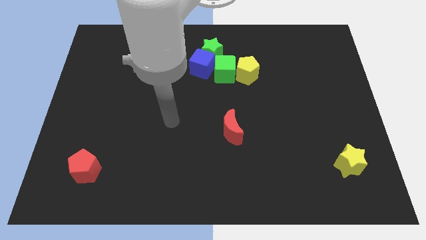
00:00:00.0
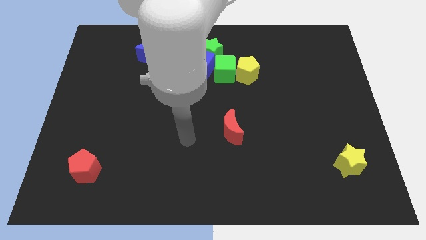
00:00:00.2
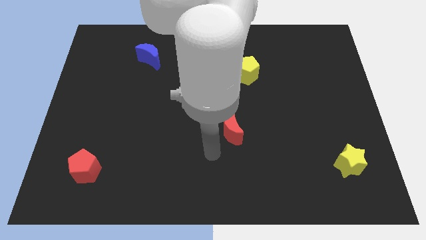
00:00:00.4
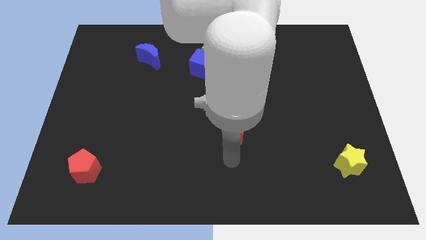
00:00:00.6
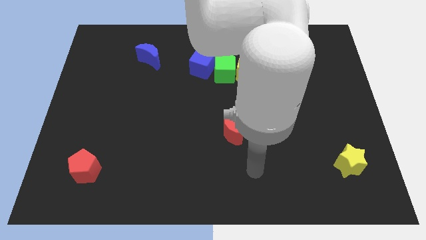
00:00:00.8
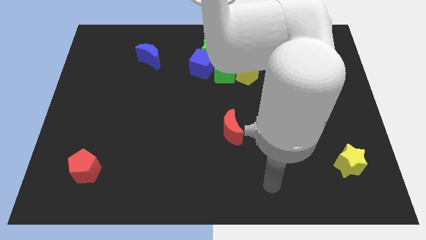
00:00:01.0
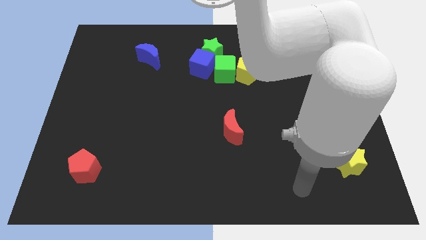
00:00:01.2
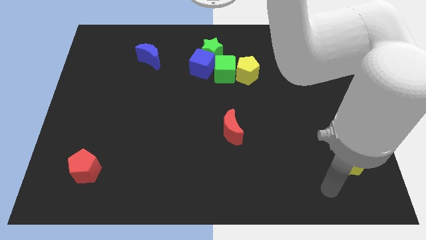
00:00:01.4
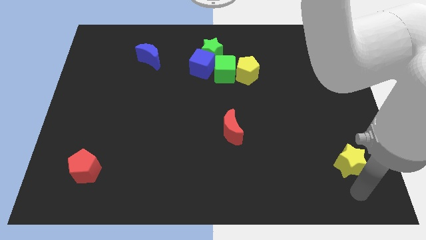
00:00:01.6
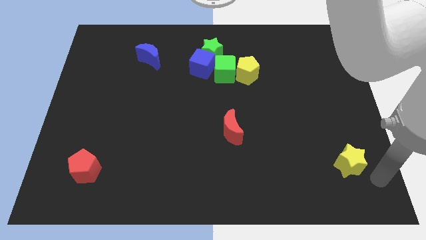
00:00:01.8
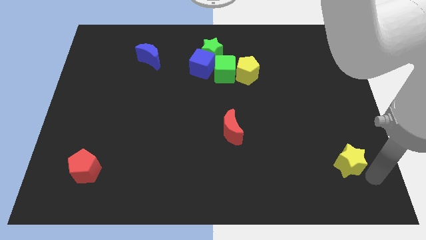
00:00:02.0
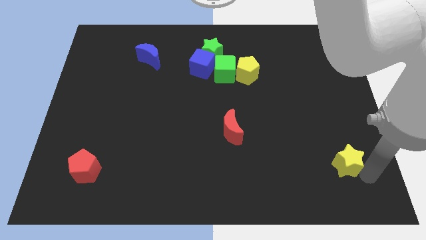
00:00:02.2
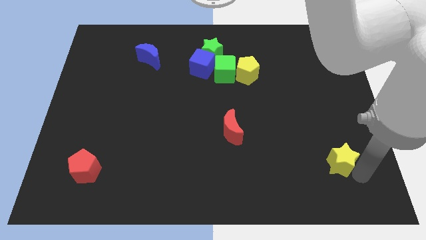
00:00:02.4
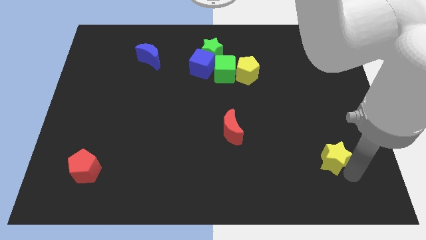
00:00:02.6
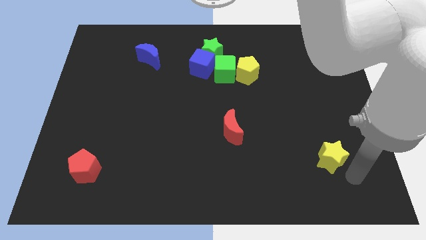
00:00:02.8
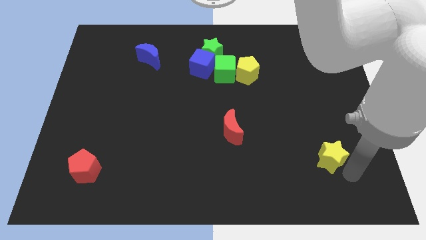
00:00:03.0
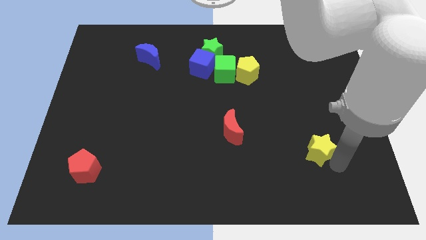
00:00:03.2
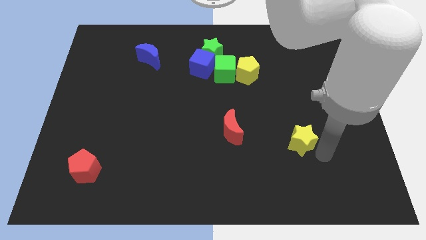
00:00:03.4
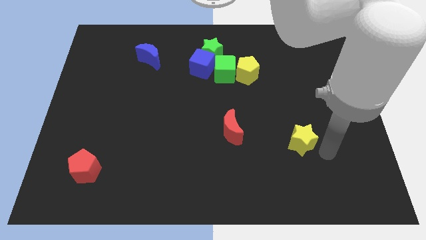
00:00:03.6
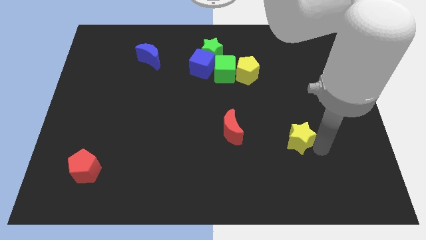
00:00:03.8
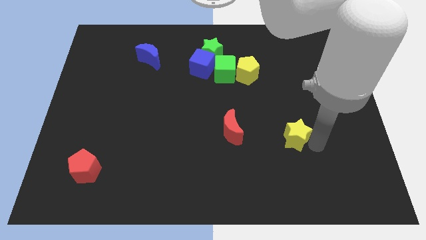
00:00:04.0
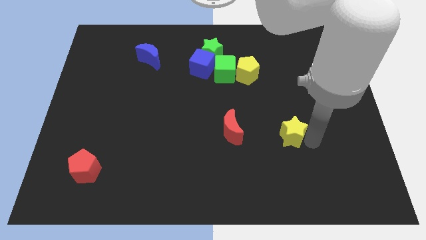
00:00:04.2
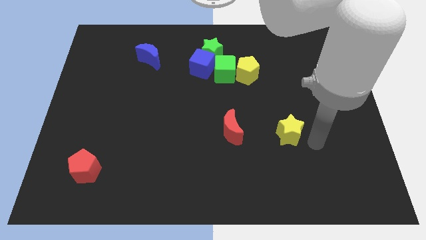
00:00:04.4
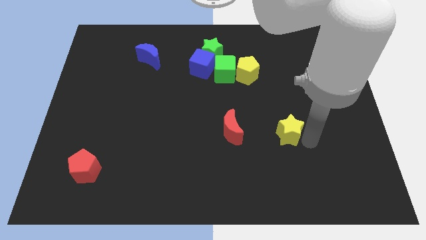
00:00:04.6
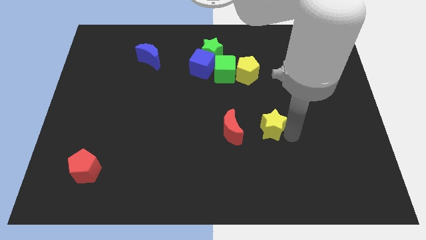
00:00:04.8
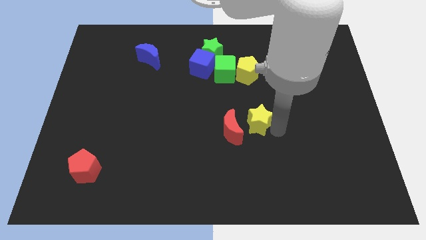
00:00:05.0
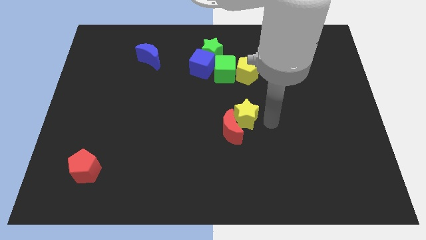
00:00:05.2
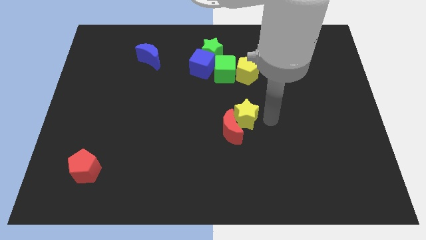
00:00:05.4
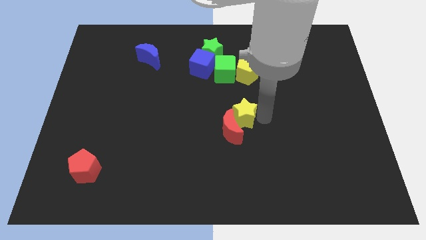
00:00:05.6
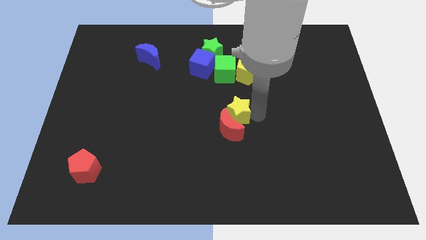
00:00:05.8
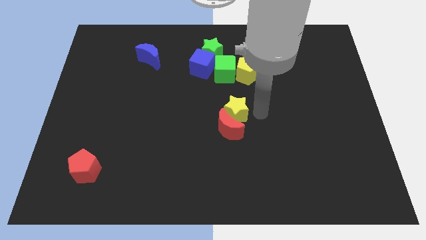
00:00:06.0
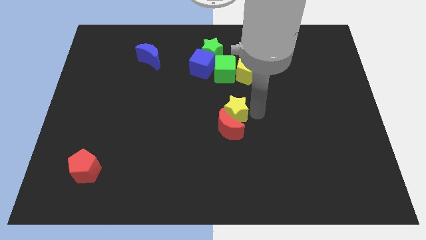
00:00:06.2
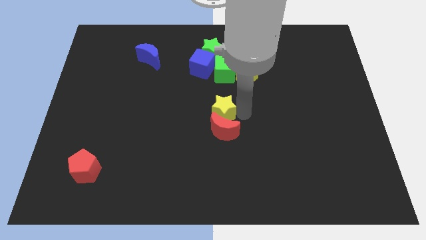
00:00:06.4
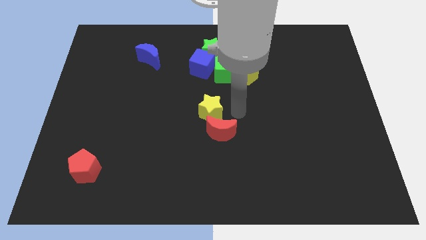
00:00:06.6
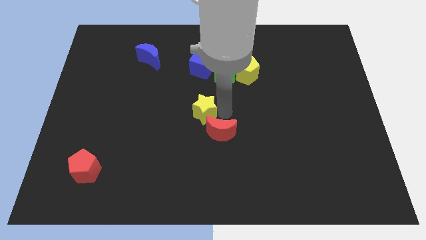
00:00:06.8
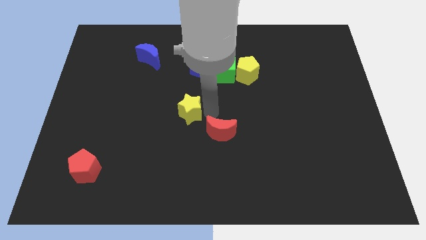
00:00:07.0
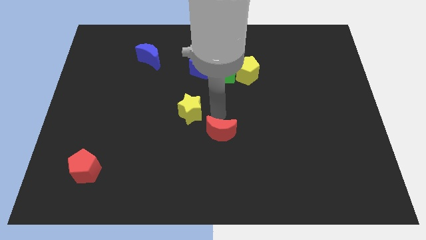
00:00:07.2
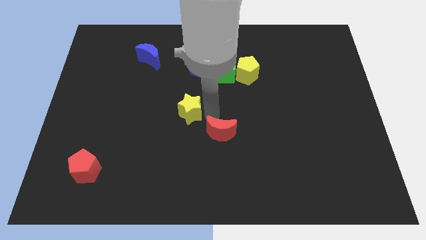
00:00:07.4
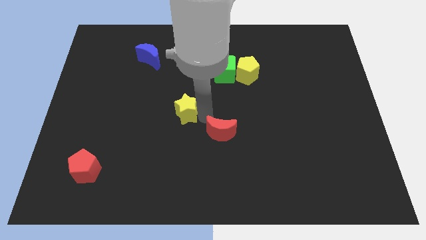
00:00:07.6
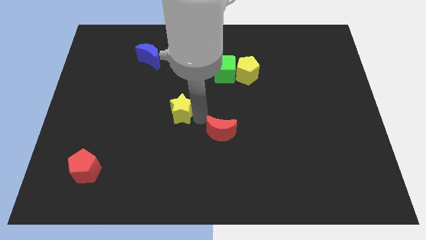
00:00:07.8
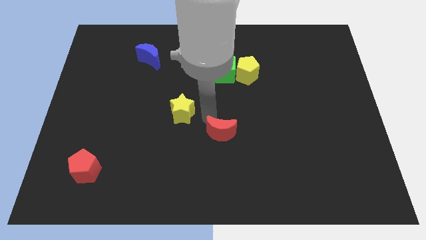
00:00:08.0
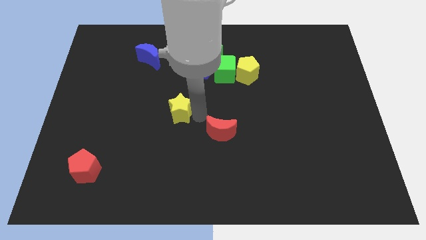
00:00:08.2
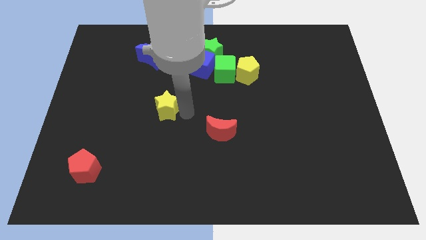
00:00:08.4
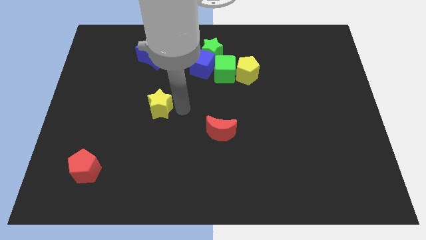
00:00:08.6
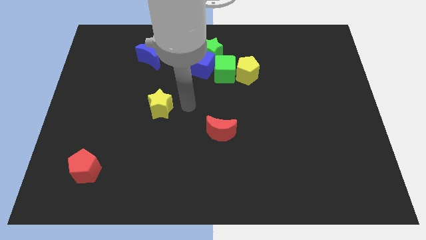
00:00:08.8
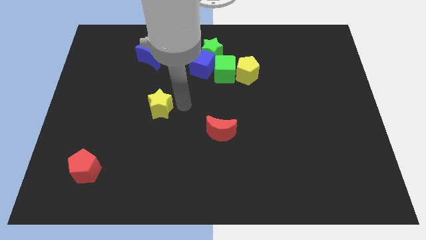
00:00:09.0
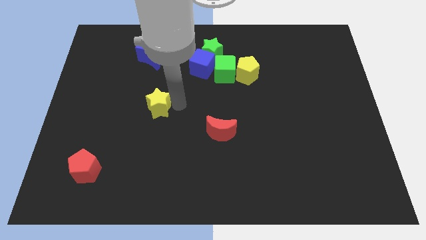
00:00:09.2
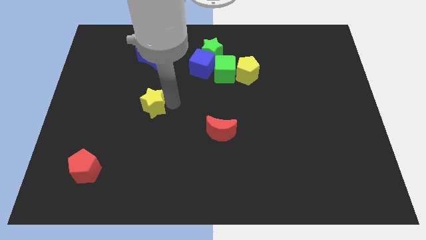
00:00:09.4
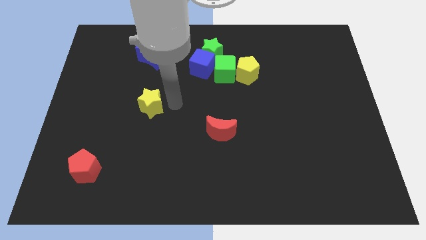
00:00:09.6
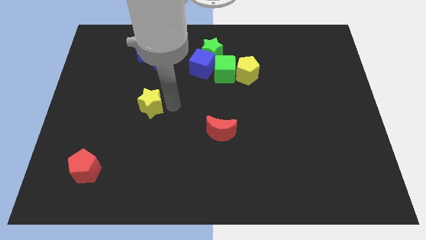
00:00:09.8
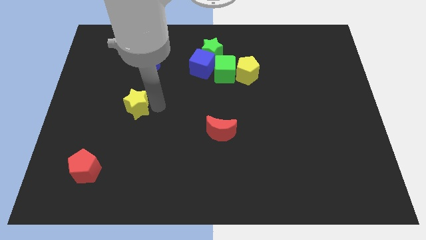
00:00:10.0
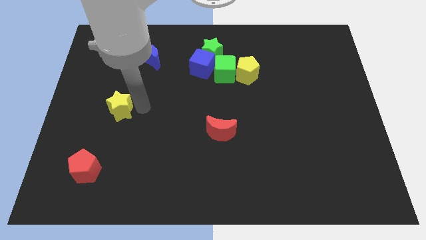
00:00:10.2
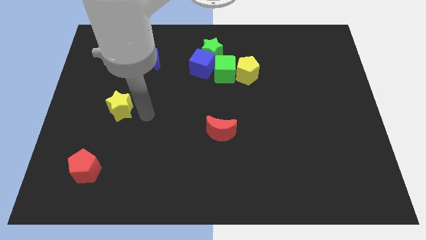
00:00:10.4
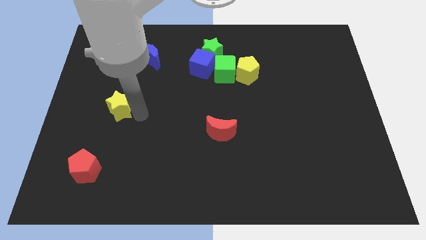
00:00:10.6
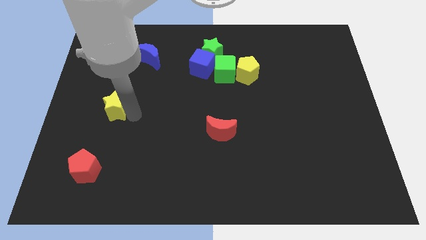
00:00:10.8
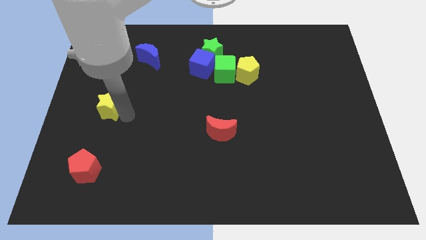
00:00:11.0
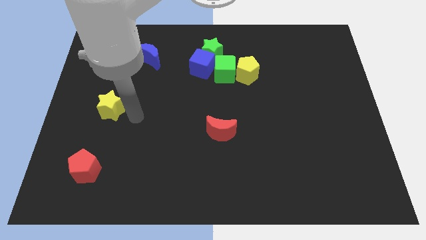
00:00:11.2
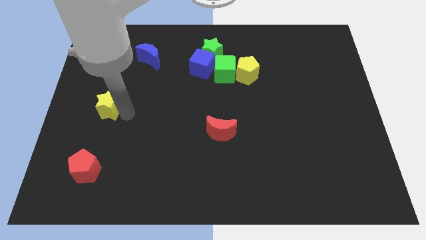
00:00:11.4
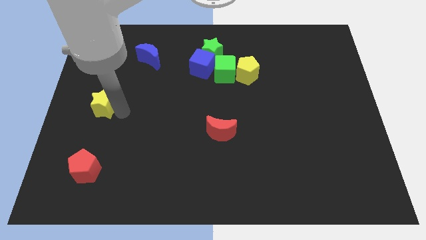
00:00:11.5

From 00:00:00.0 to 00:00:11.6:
move the yellow star to the center left

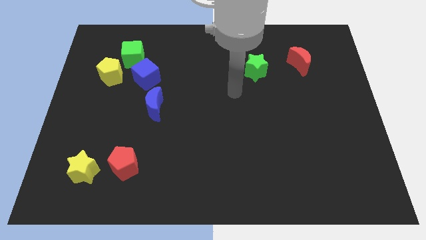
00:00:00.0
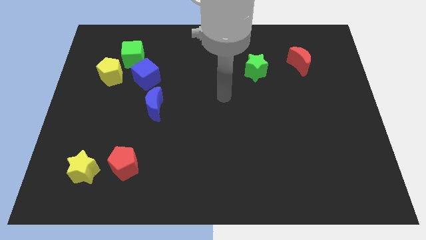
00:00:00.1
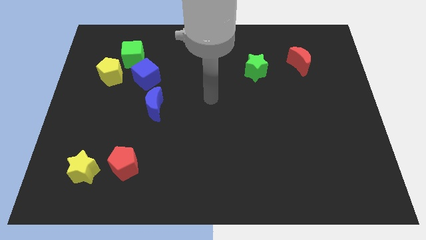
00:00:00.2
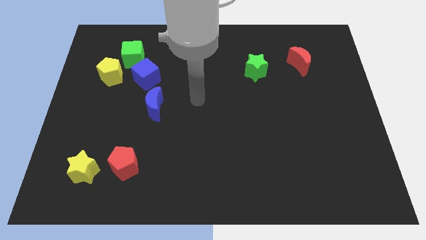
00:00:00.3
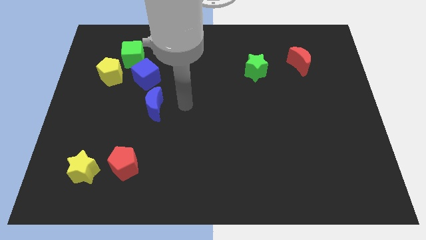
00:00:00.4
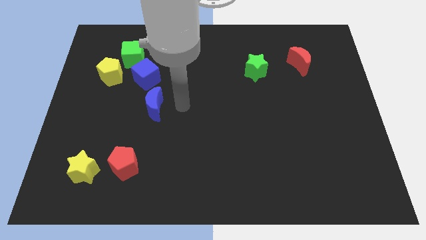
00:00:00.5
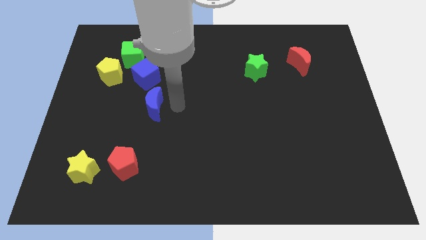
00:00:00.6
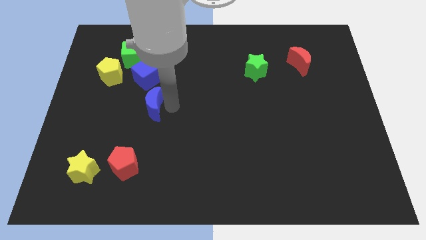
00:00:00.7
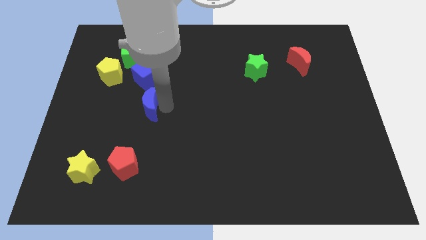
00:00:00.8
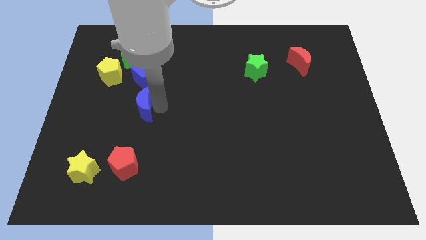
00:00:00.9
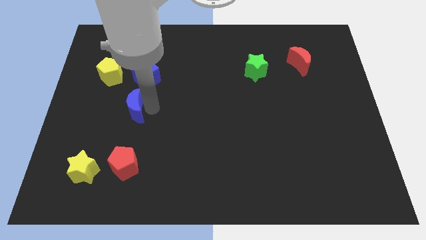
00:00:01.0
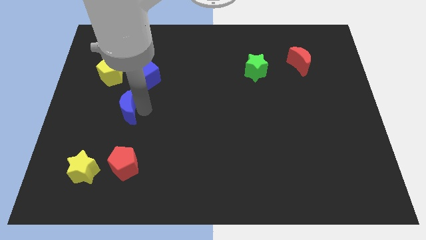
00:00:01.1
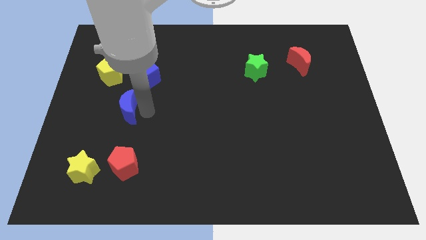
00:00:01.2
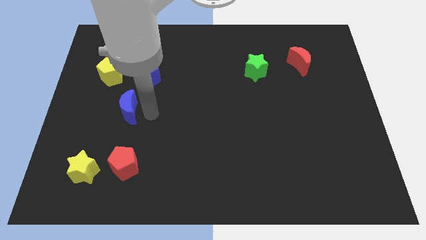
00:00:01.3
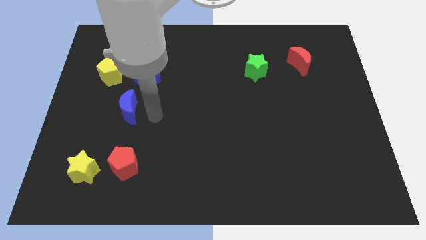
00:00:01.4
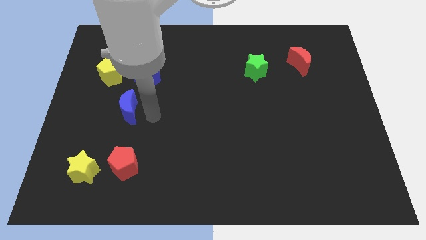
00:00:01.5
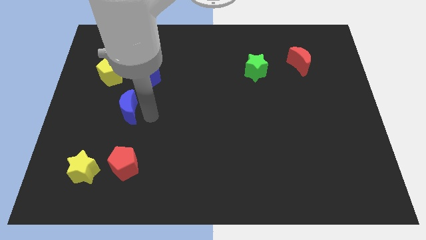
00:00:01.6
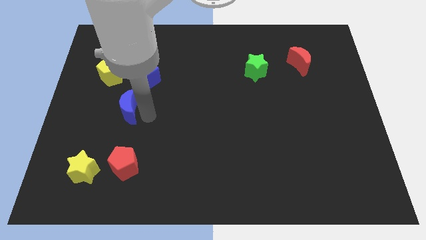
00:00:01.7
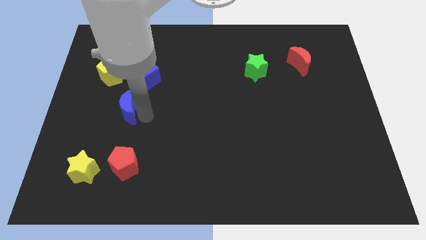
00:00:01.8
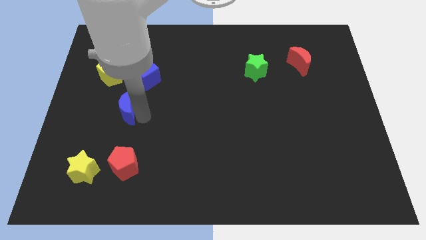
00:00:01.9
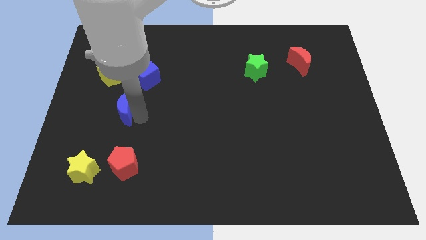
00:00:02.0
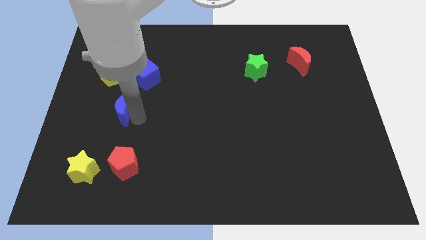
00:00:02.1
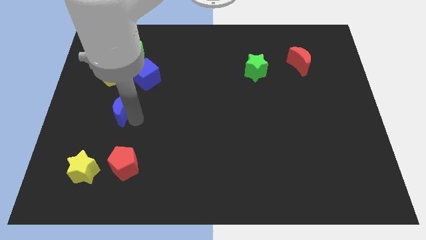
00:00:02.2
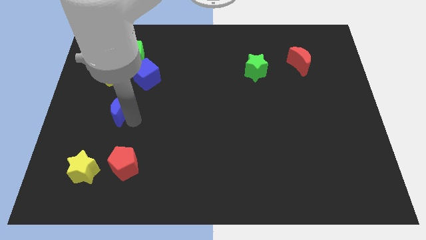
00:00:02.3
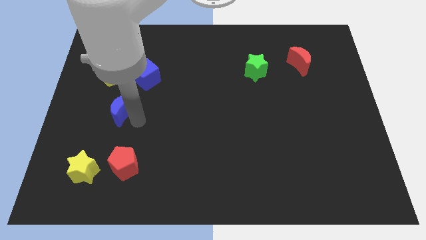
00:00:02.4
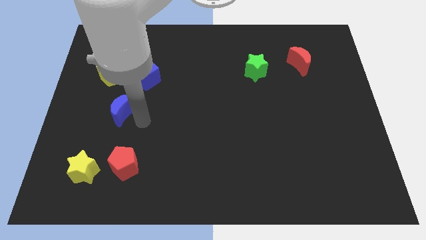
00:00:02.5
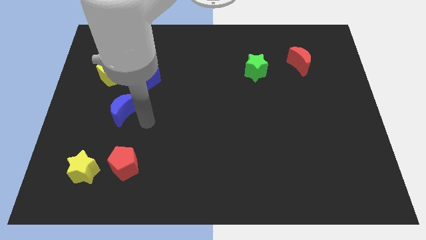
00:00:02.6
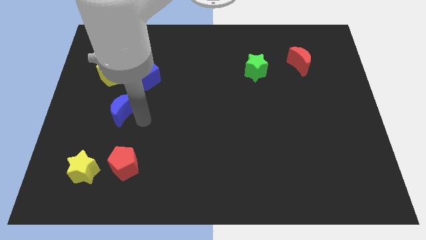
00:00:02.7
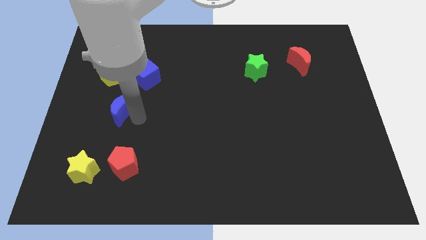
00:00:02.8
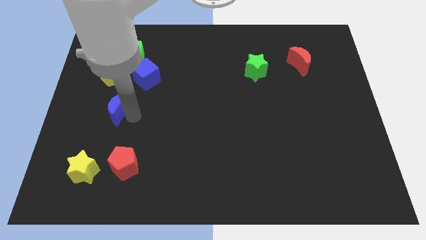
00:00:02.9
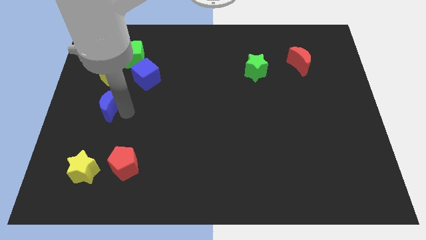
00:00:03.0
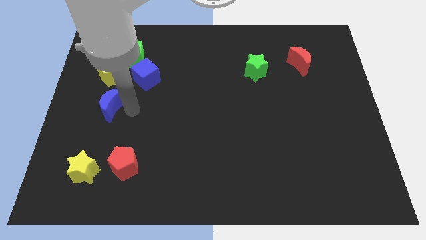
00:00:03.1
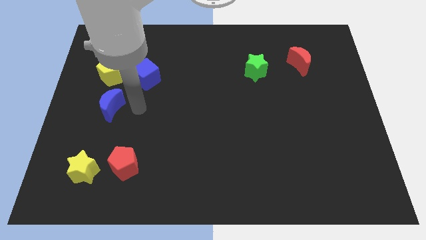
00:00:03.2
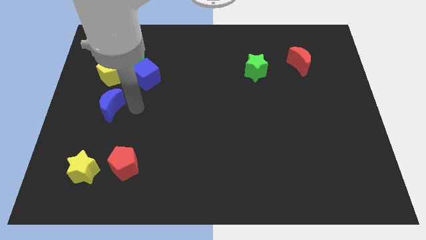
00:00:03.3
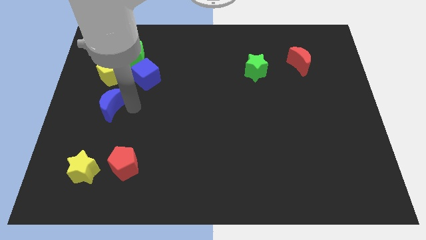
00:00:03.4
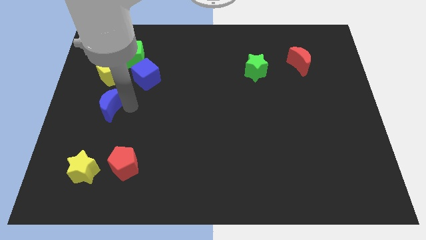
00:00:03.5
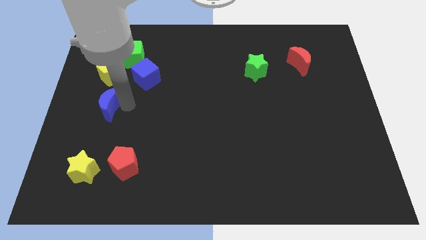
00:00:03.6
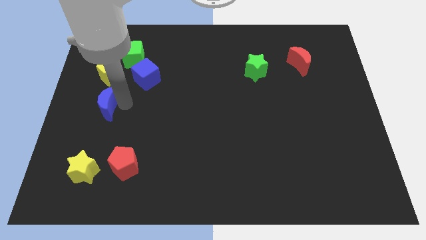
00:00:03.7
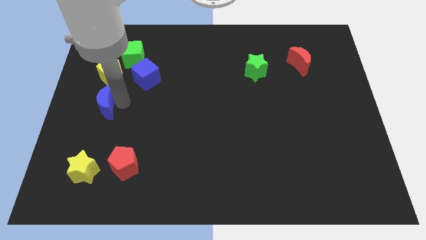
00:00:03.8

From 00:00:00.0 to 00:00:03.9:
push the blue moon to the left side
